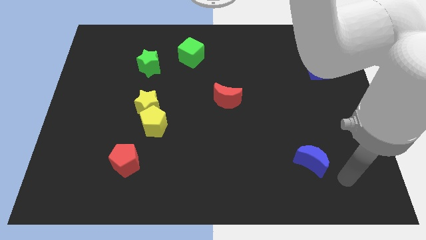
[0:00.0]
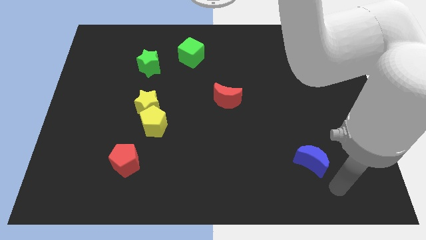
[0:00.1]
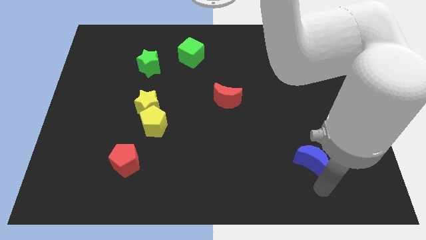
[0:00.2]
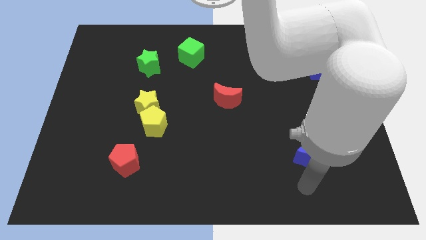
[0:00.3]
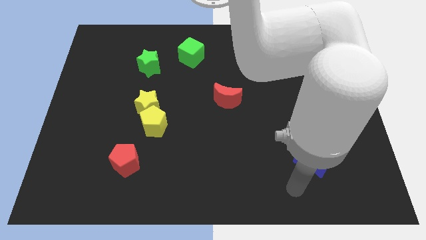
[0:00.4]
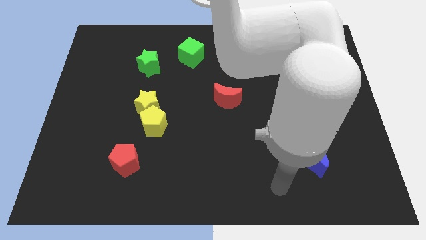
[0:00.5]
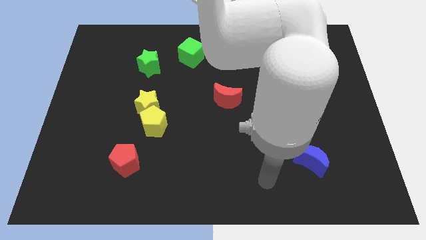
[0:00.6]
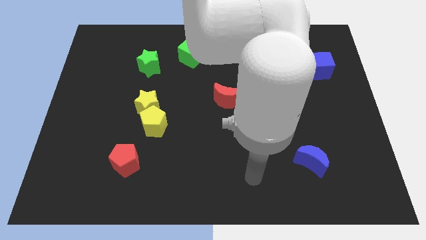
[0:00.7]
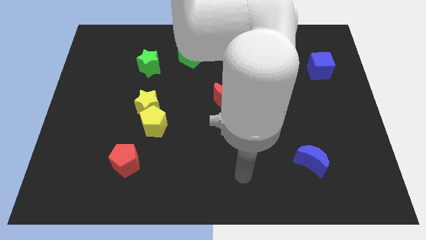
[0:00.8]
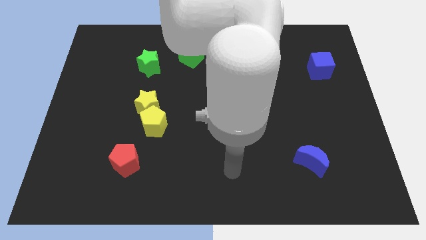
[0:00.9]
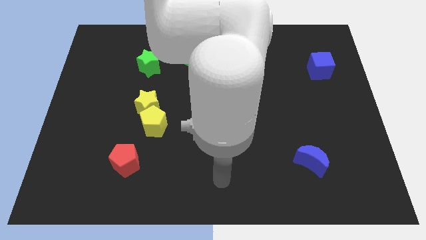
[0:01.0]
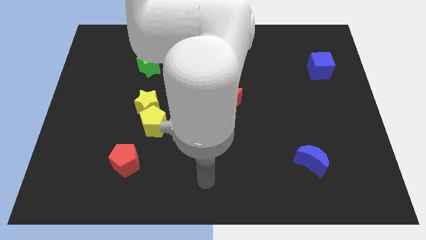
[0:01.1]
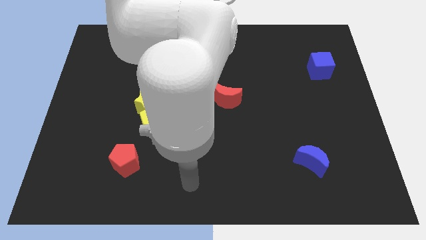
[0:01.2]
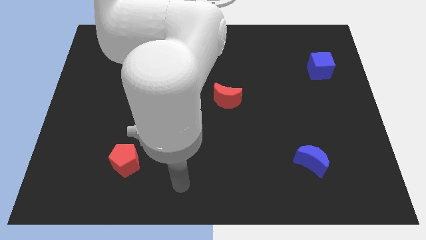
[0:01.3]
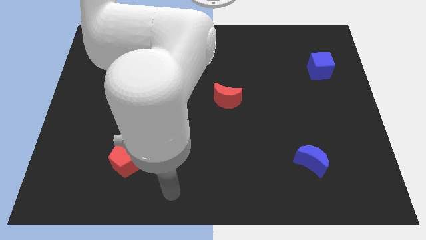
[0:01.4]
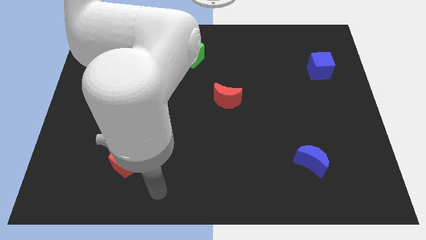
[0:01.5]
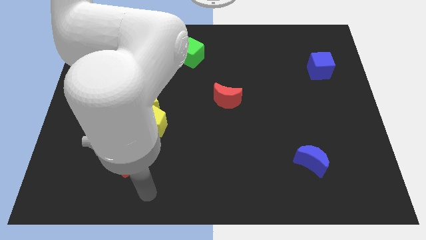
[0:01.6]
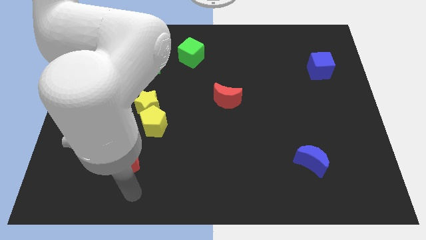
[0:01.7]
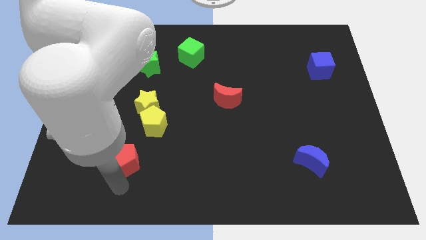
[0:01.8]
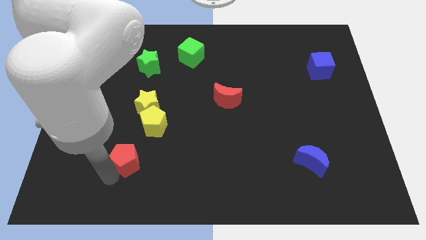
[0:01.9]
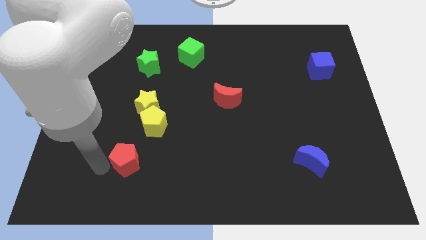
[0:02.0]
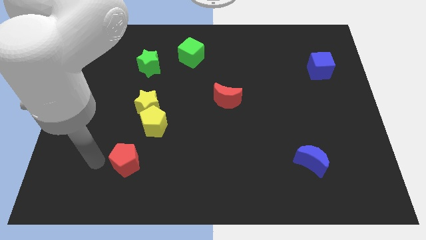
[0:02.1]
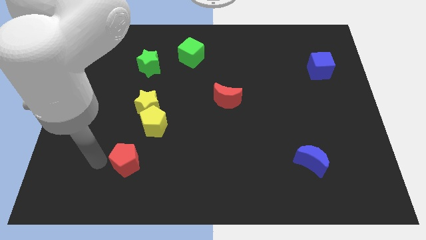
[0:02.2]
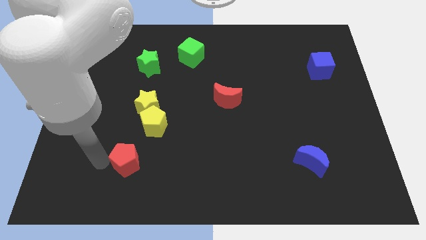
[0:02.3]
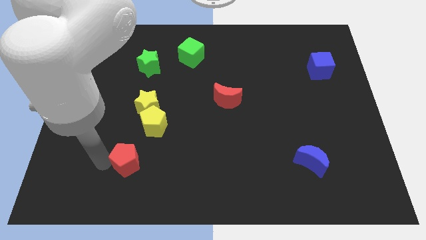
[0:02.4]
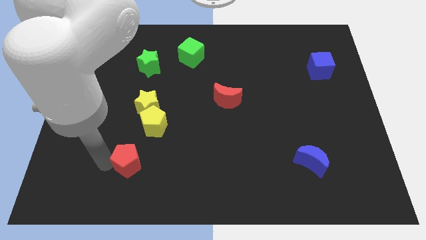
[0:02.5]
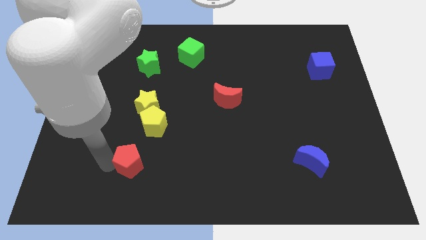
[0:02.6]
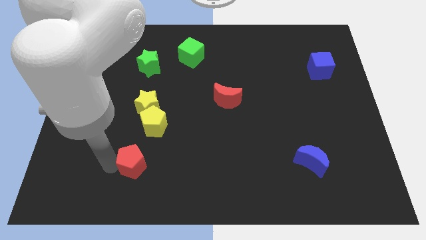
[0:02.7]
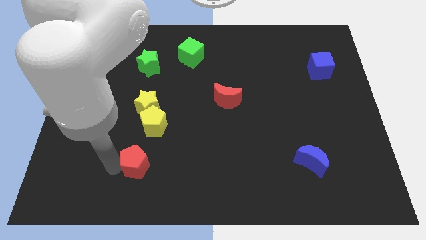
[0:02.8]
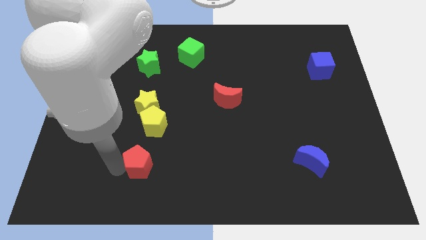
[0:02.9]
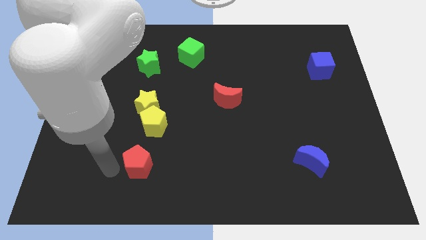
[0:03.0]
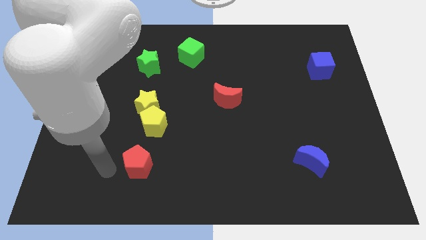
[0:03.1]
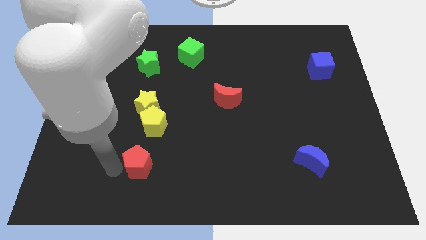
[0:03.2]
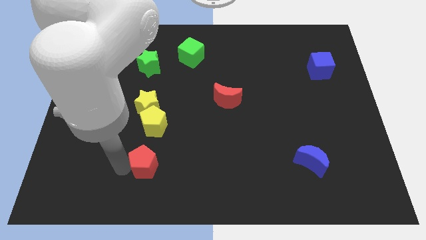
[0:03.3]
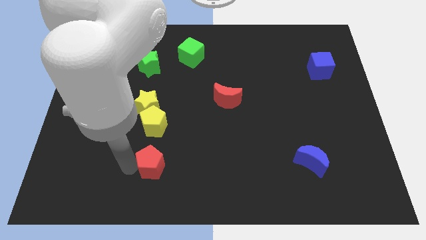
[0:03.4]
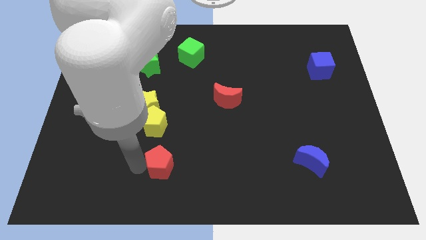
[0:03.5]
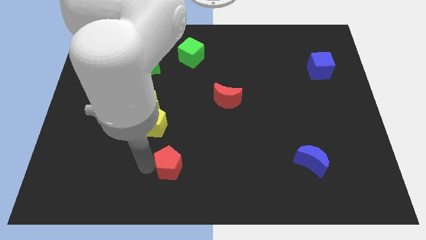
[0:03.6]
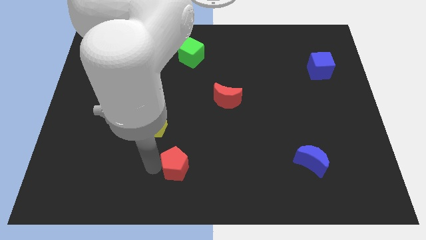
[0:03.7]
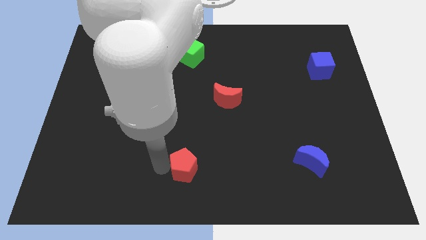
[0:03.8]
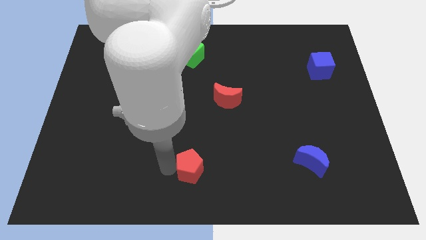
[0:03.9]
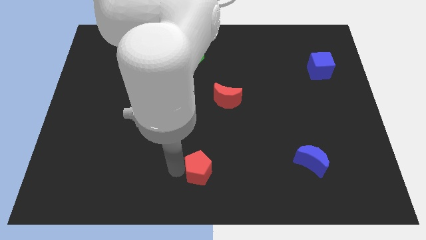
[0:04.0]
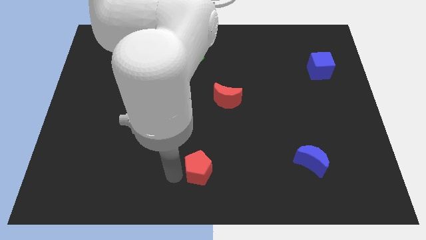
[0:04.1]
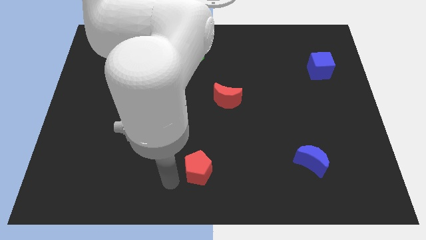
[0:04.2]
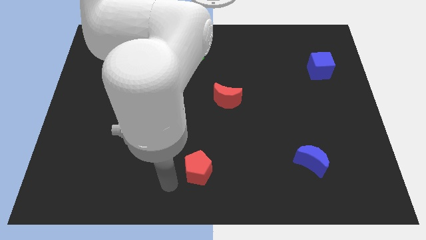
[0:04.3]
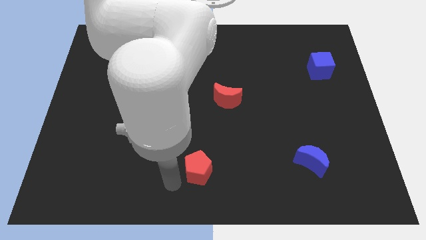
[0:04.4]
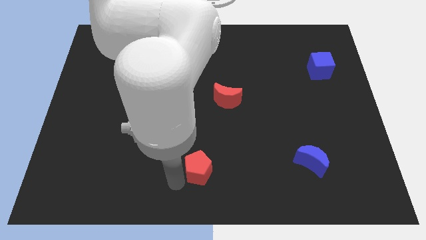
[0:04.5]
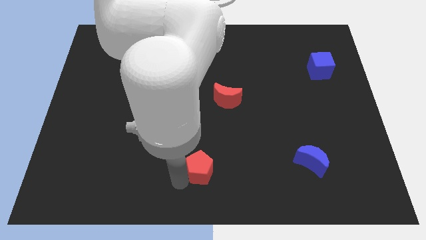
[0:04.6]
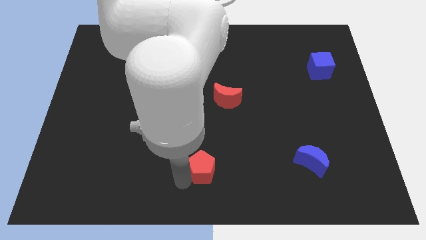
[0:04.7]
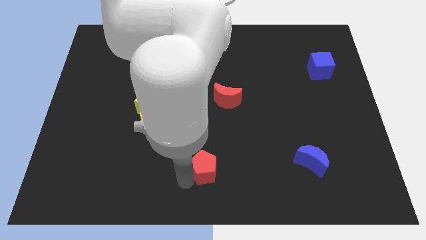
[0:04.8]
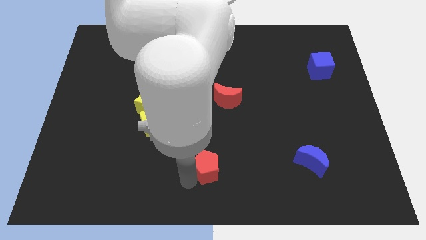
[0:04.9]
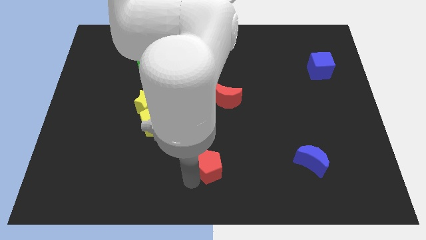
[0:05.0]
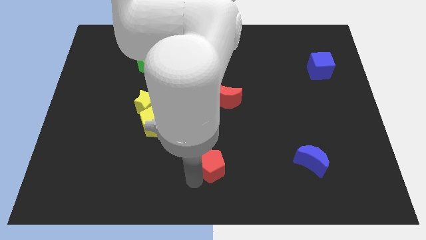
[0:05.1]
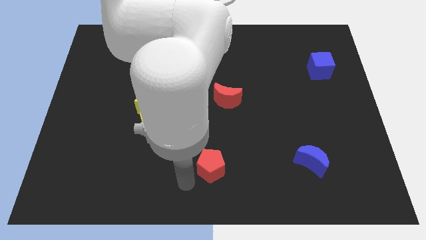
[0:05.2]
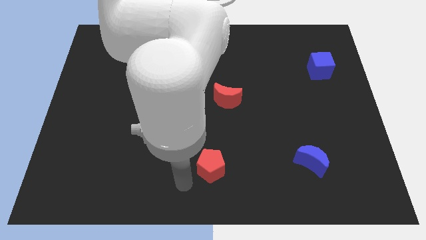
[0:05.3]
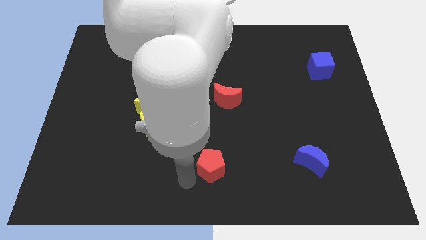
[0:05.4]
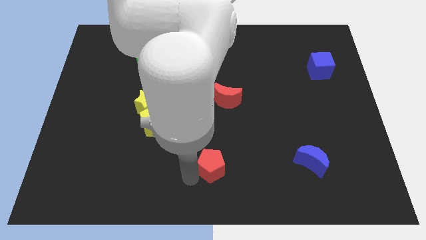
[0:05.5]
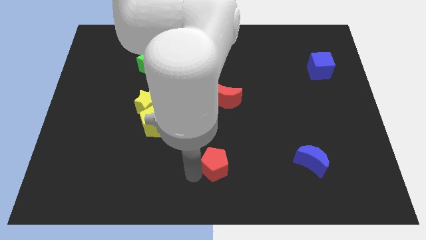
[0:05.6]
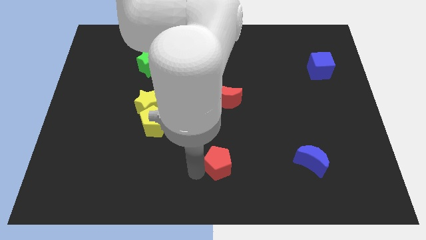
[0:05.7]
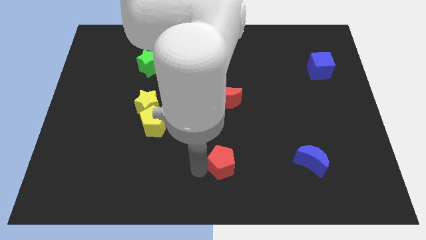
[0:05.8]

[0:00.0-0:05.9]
push the red pentagon to the right

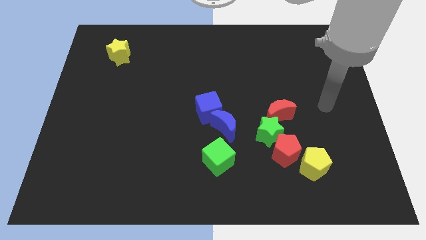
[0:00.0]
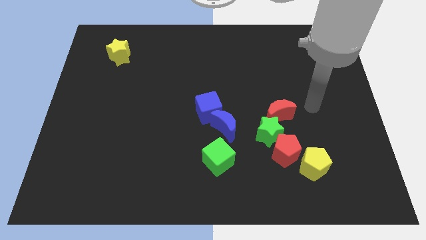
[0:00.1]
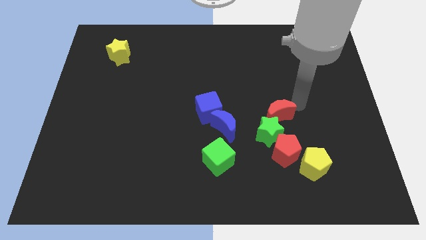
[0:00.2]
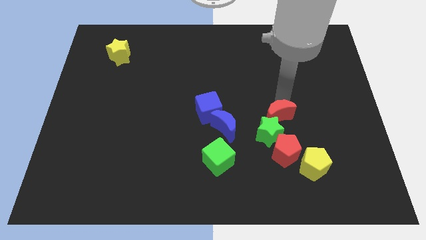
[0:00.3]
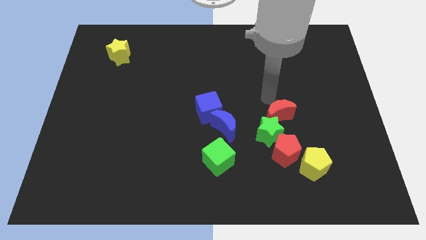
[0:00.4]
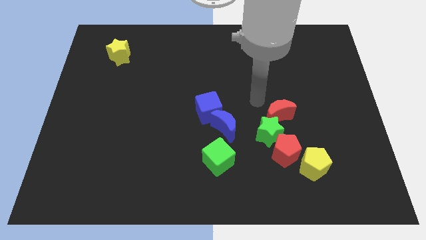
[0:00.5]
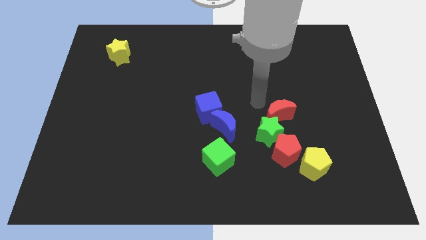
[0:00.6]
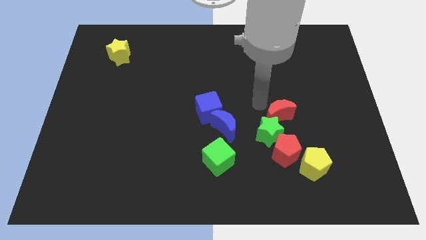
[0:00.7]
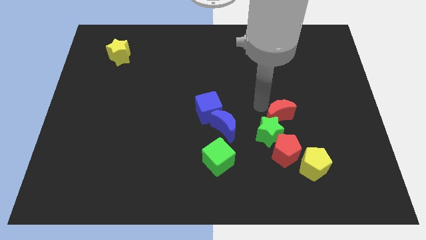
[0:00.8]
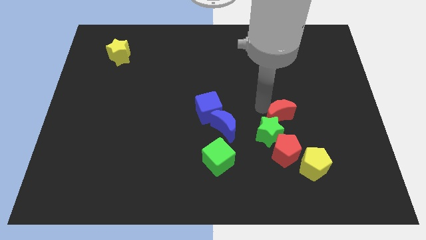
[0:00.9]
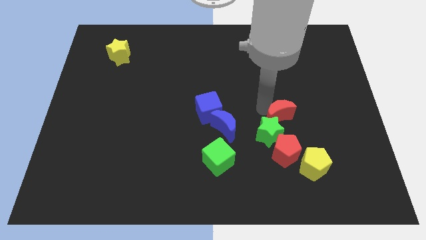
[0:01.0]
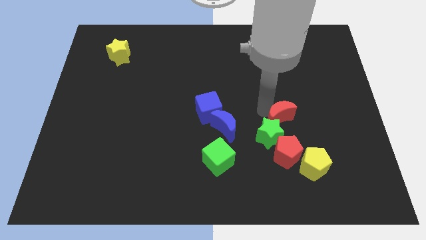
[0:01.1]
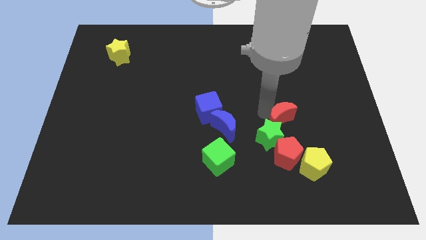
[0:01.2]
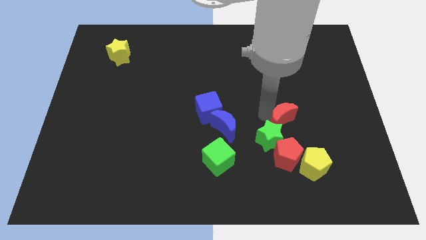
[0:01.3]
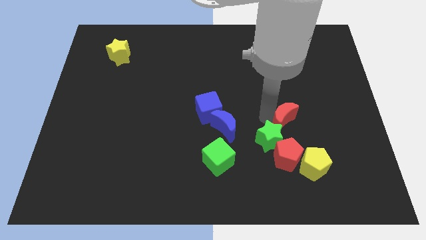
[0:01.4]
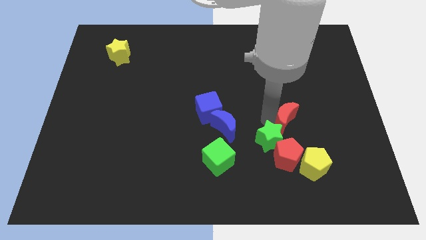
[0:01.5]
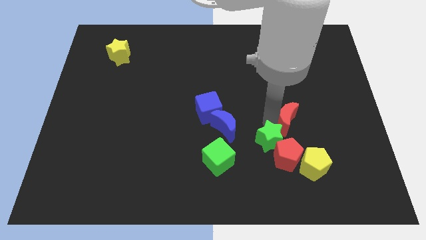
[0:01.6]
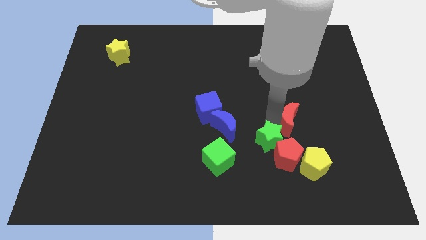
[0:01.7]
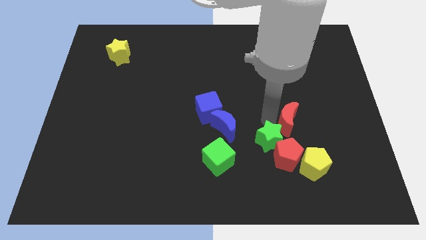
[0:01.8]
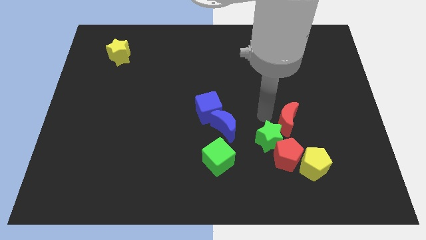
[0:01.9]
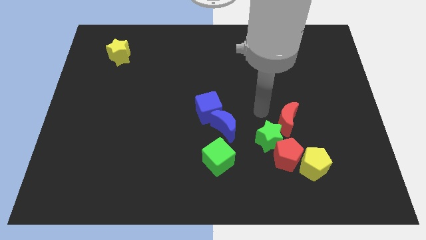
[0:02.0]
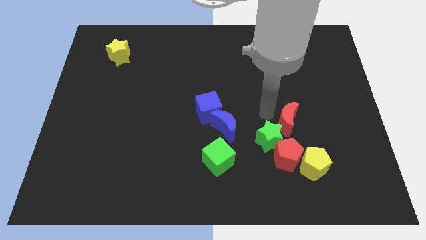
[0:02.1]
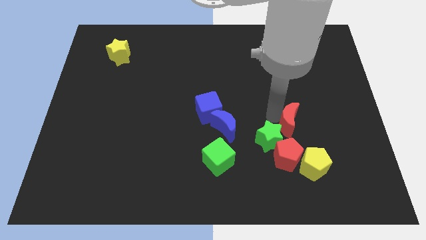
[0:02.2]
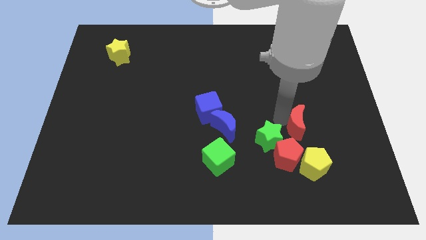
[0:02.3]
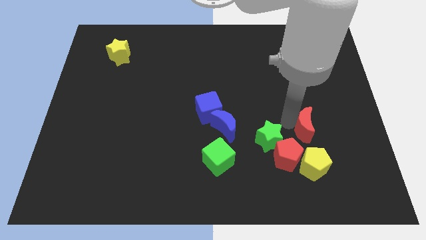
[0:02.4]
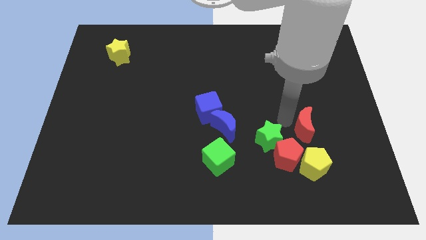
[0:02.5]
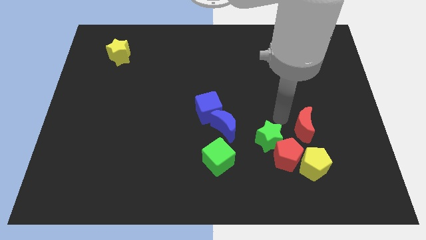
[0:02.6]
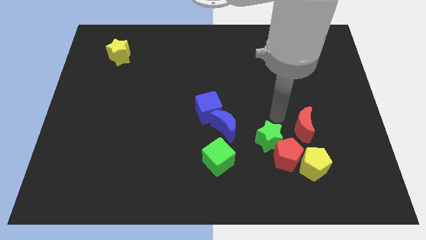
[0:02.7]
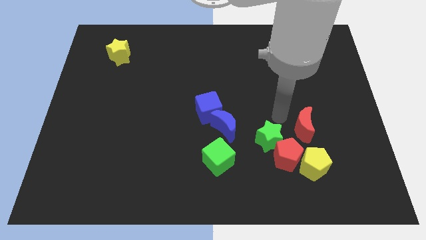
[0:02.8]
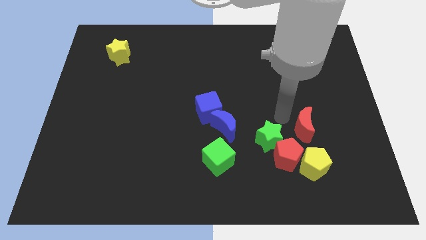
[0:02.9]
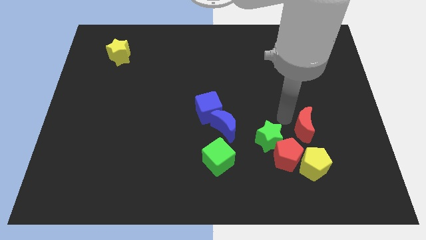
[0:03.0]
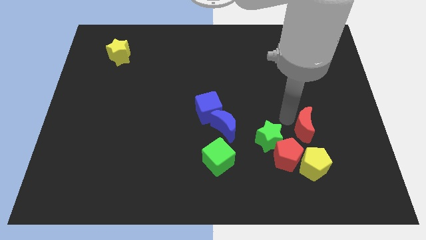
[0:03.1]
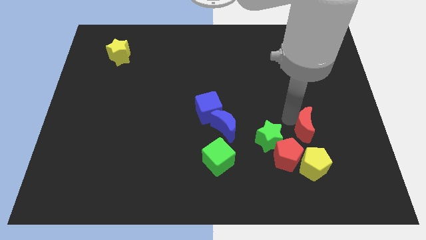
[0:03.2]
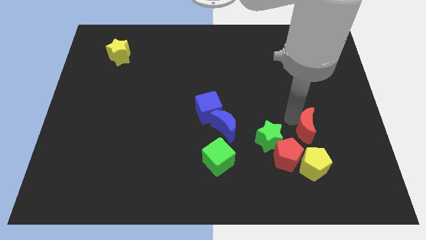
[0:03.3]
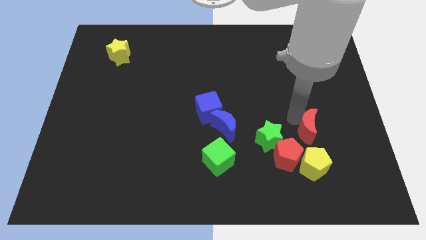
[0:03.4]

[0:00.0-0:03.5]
slightly push the red moon downwards and right
